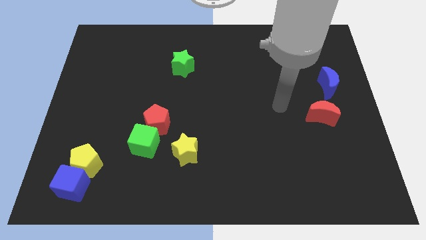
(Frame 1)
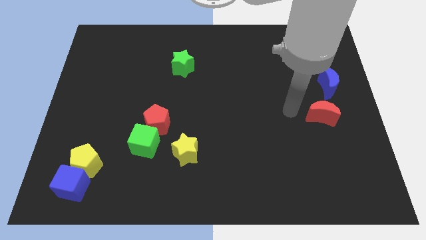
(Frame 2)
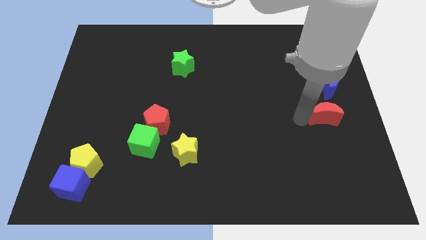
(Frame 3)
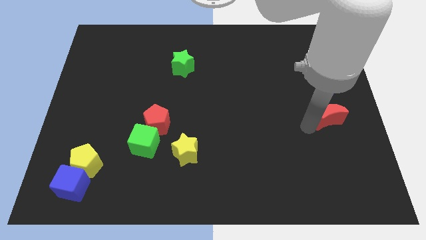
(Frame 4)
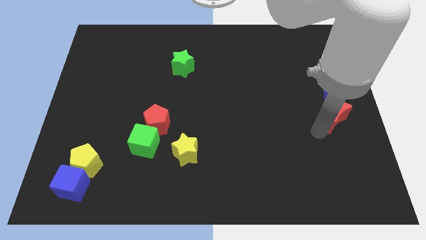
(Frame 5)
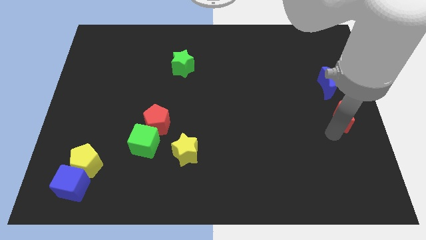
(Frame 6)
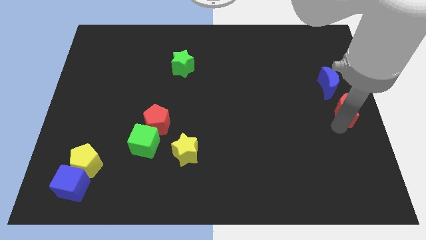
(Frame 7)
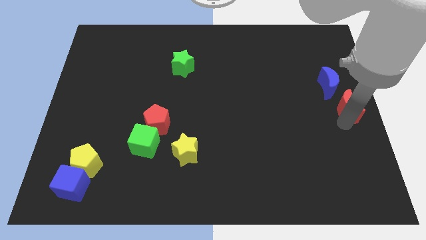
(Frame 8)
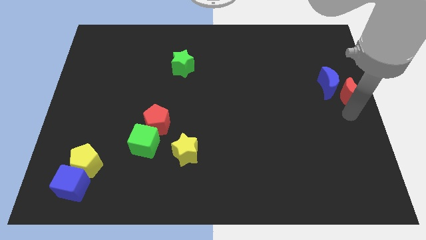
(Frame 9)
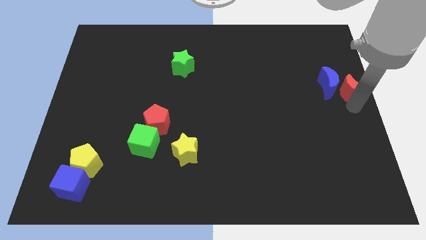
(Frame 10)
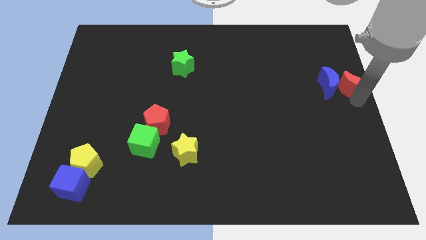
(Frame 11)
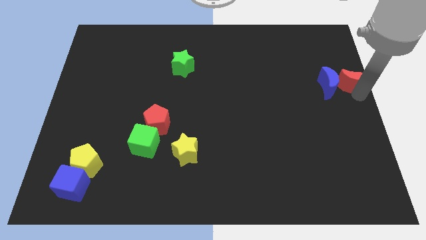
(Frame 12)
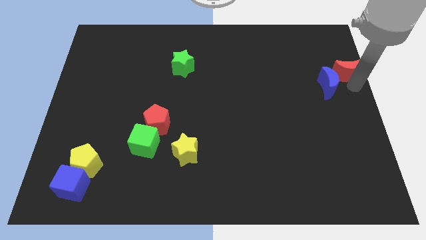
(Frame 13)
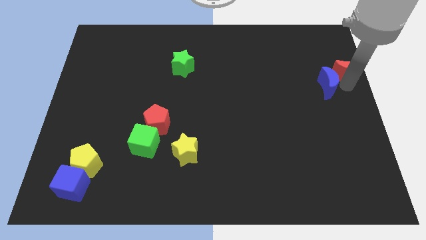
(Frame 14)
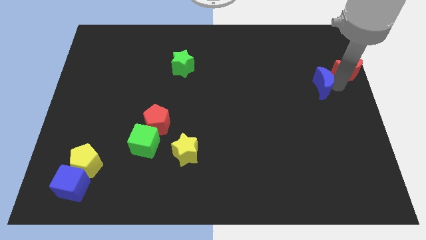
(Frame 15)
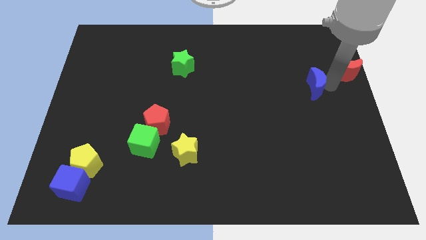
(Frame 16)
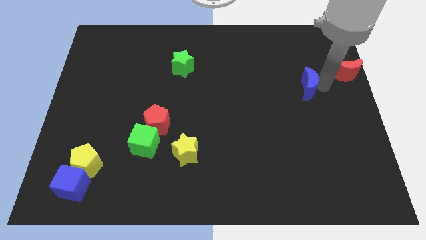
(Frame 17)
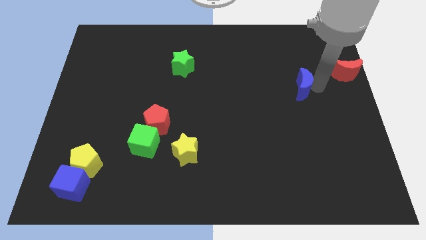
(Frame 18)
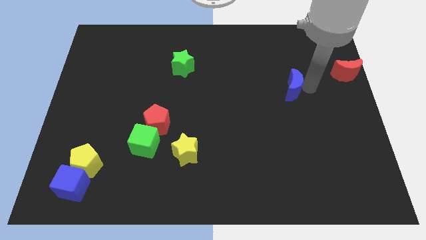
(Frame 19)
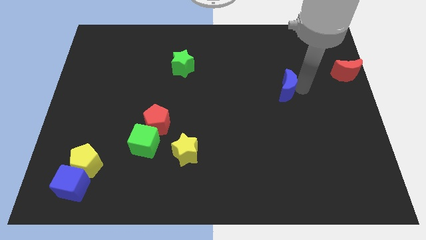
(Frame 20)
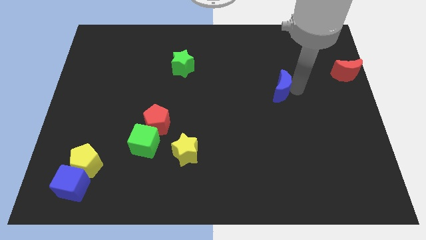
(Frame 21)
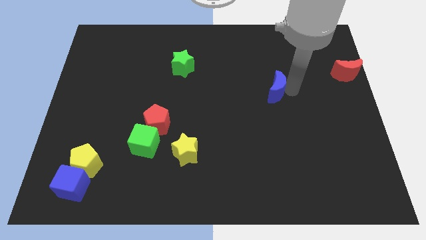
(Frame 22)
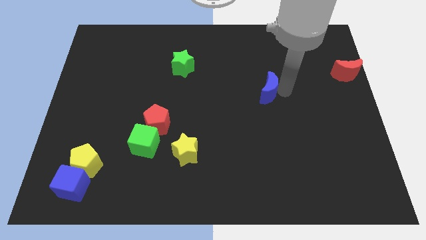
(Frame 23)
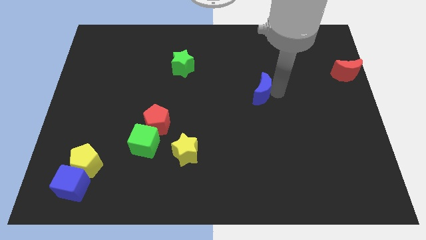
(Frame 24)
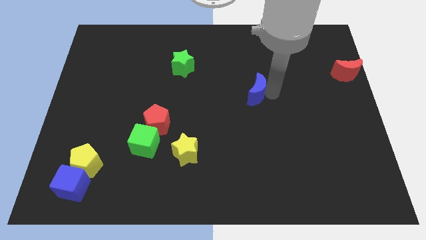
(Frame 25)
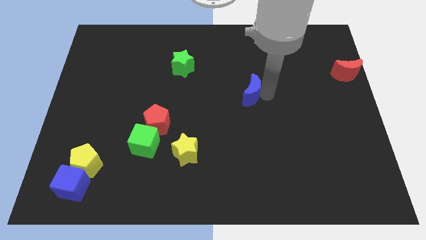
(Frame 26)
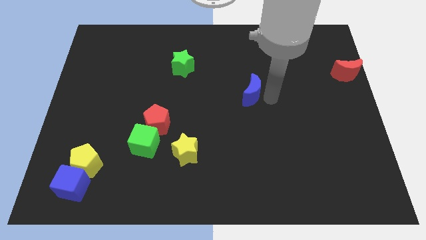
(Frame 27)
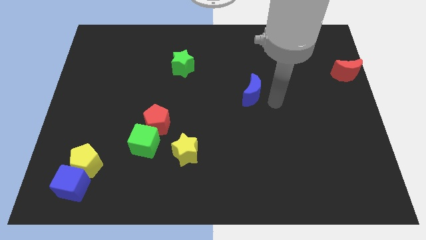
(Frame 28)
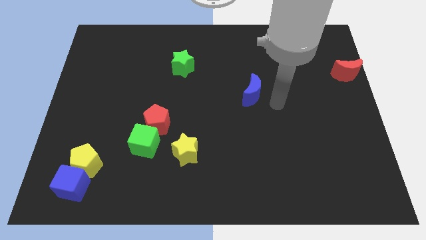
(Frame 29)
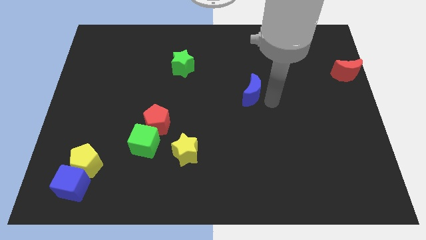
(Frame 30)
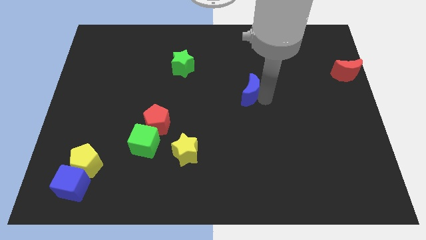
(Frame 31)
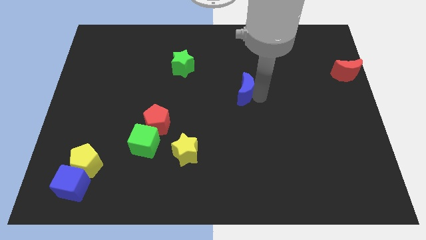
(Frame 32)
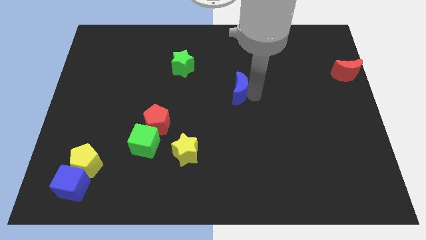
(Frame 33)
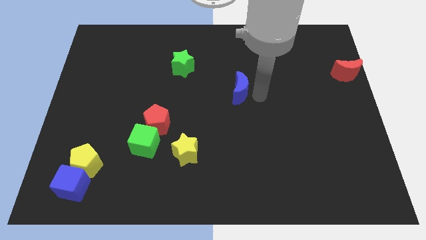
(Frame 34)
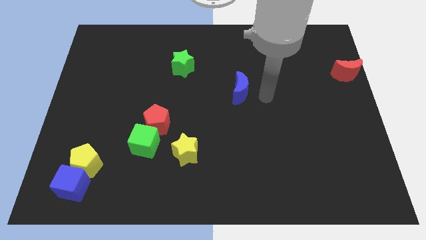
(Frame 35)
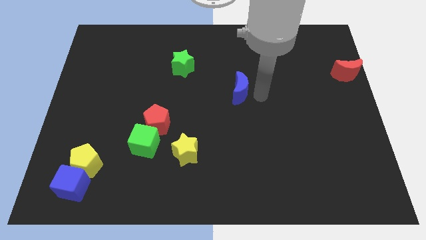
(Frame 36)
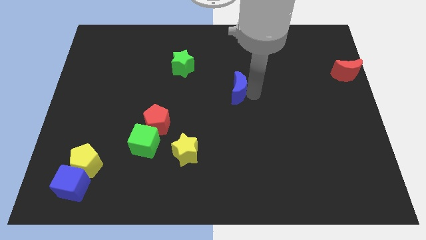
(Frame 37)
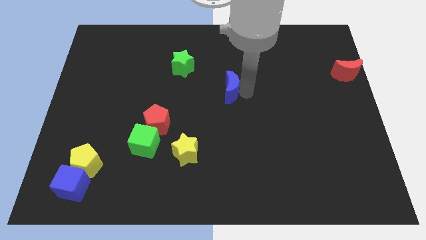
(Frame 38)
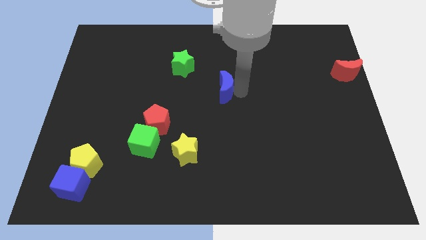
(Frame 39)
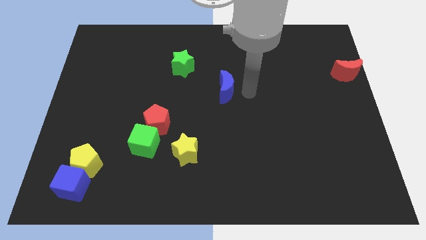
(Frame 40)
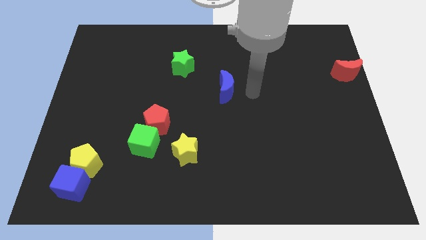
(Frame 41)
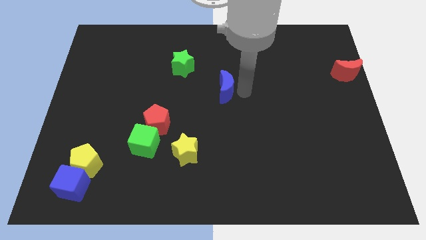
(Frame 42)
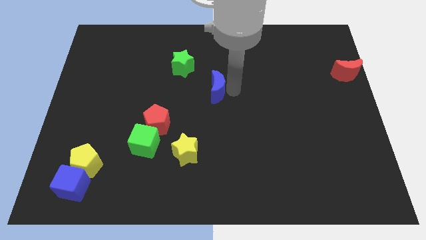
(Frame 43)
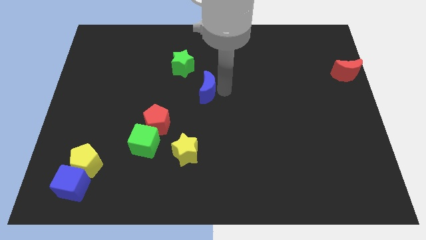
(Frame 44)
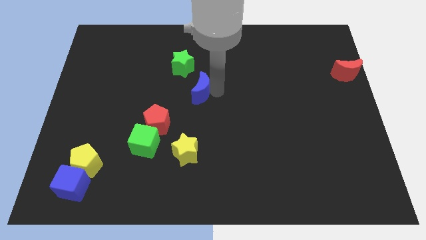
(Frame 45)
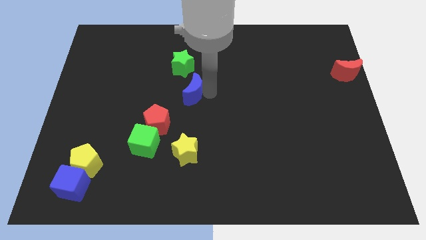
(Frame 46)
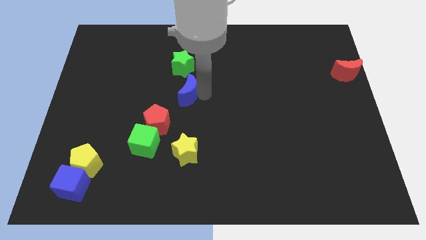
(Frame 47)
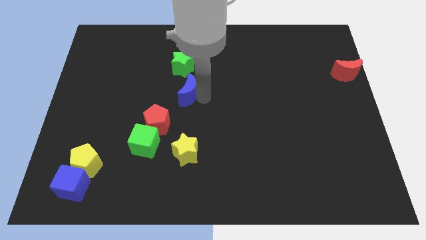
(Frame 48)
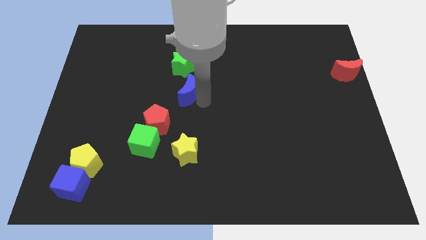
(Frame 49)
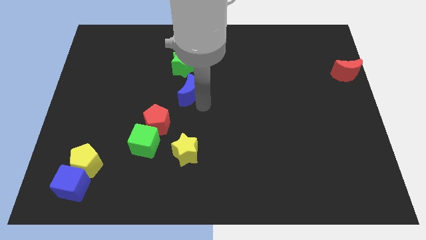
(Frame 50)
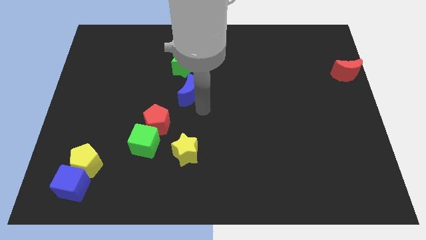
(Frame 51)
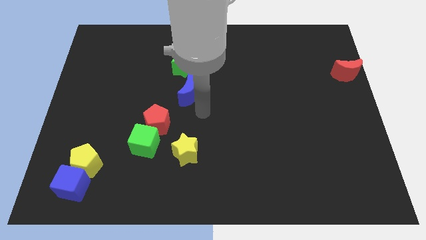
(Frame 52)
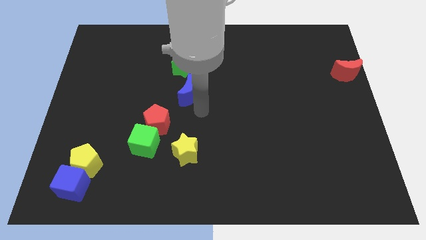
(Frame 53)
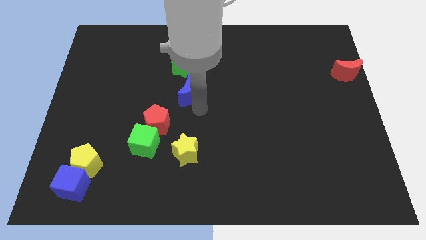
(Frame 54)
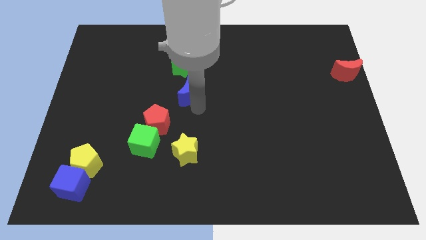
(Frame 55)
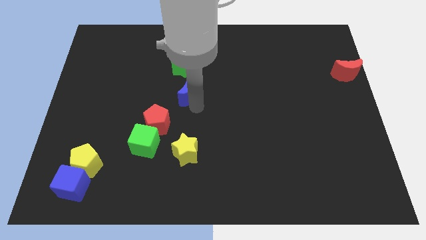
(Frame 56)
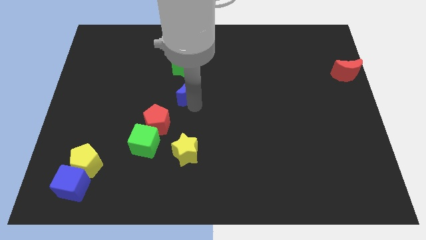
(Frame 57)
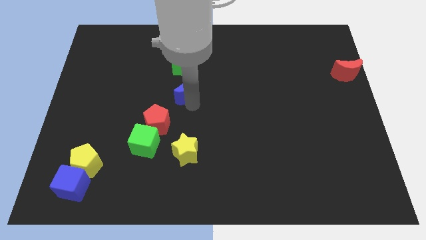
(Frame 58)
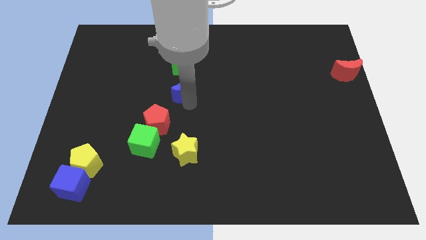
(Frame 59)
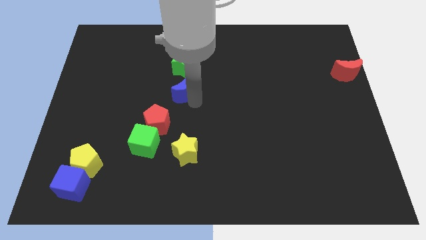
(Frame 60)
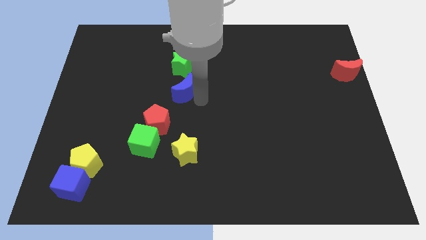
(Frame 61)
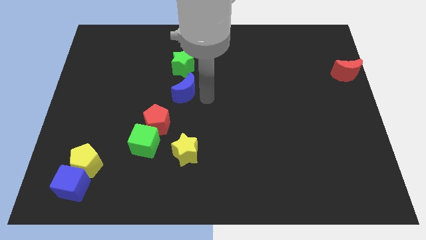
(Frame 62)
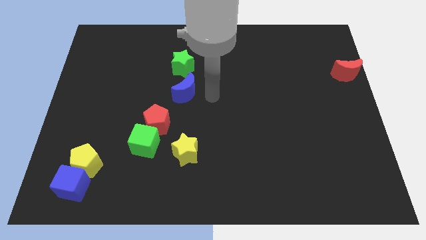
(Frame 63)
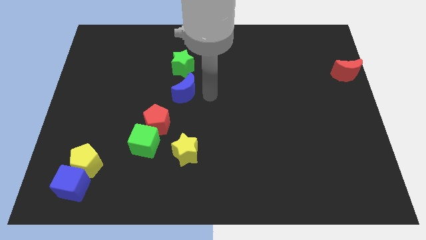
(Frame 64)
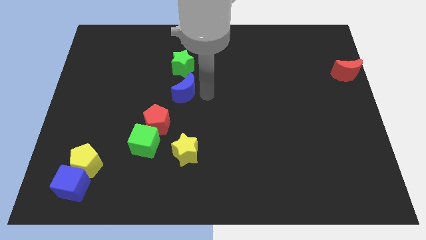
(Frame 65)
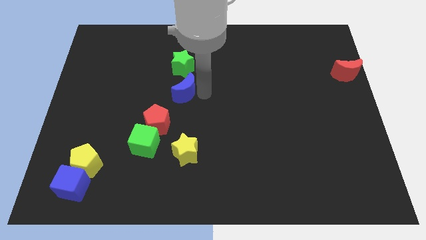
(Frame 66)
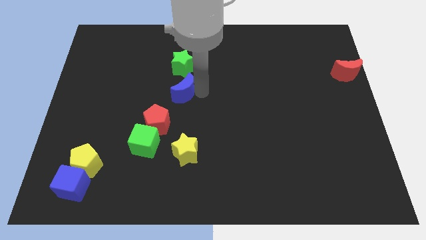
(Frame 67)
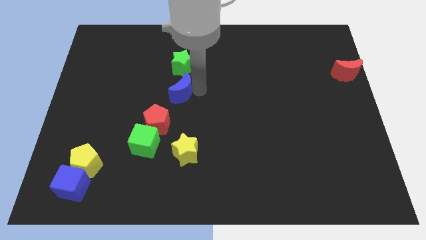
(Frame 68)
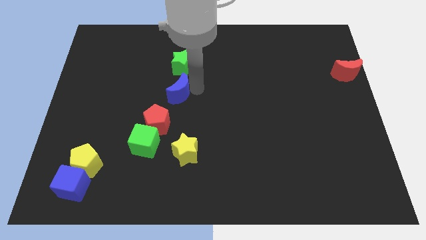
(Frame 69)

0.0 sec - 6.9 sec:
push the blue moon to the top of the red pentagon
